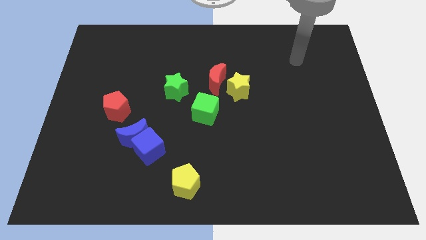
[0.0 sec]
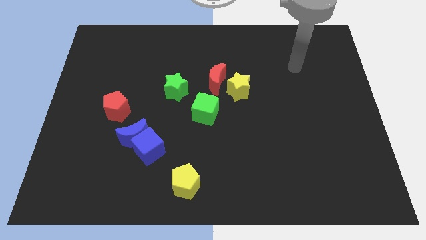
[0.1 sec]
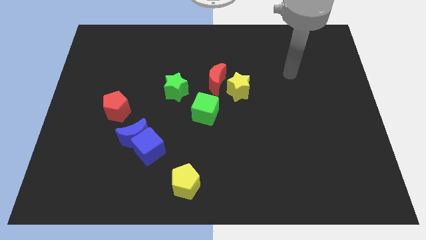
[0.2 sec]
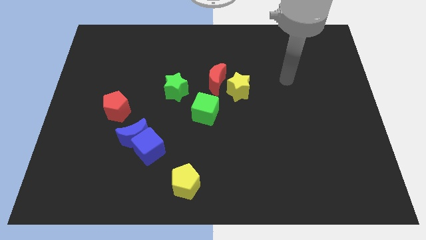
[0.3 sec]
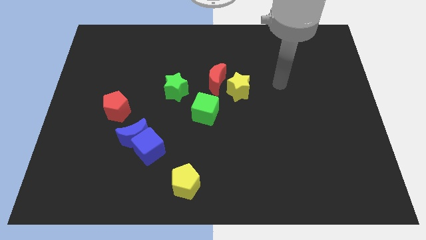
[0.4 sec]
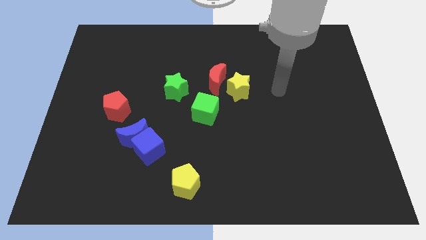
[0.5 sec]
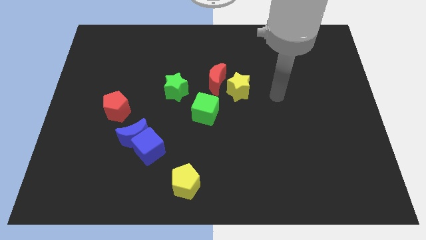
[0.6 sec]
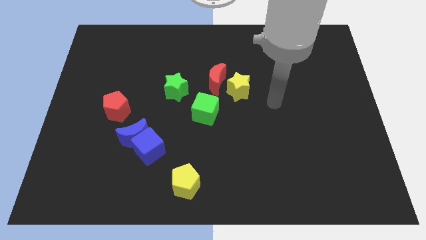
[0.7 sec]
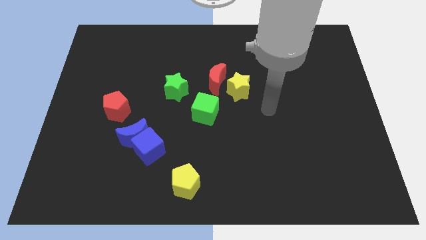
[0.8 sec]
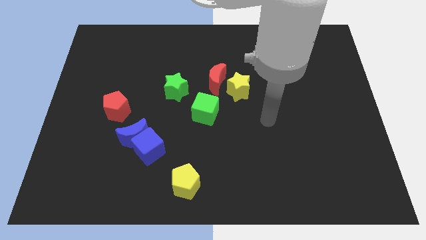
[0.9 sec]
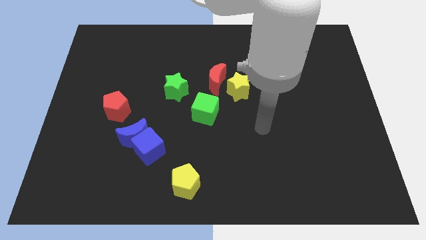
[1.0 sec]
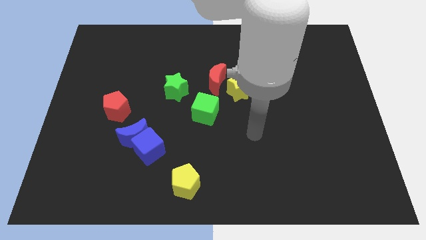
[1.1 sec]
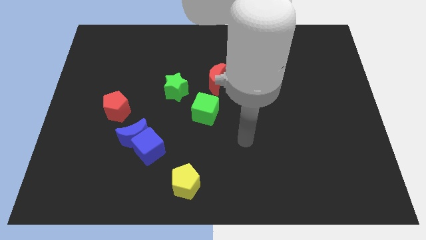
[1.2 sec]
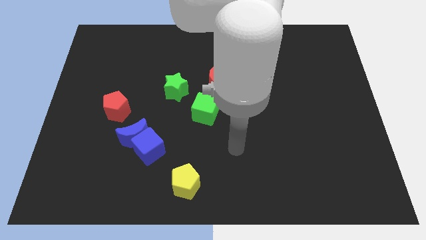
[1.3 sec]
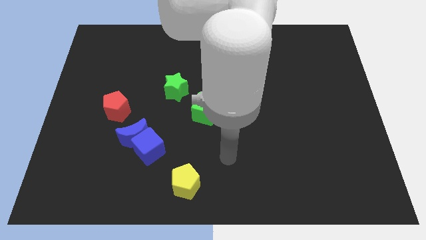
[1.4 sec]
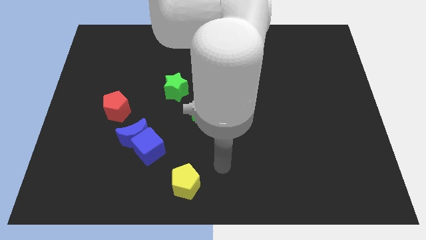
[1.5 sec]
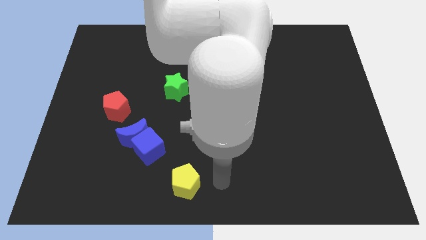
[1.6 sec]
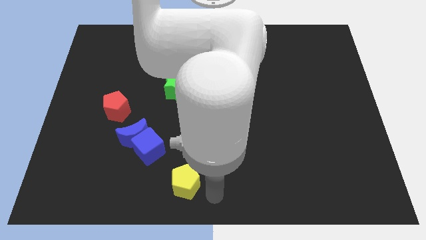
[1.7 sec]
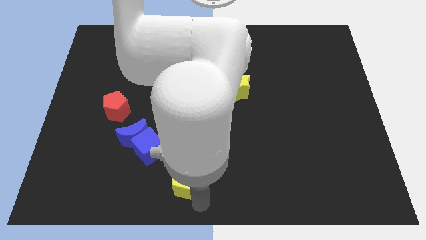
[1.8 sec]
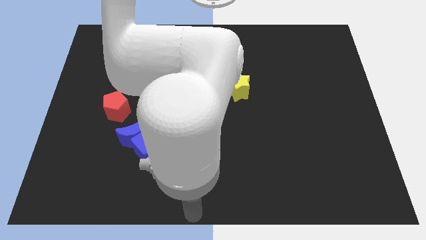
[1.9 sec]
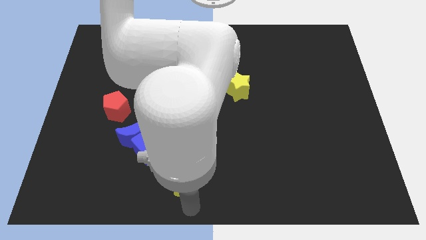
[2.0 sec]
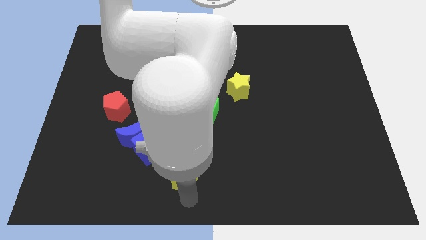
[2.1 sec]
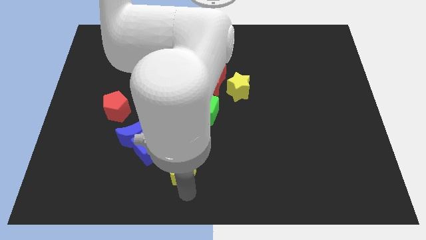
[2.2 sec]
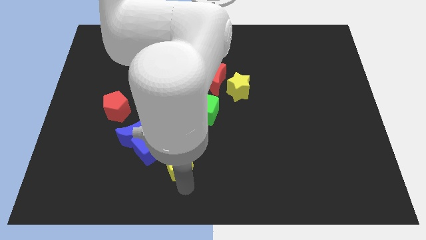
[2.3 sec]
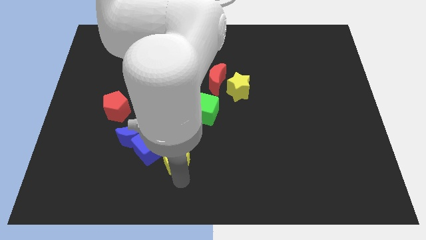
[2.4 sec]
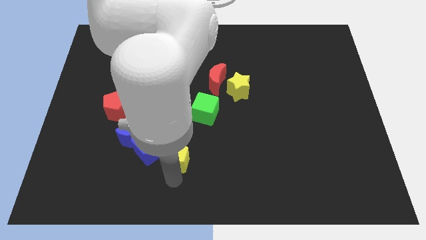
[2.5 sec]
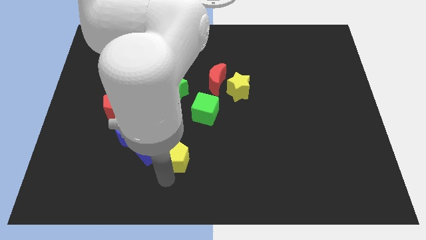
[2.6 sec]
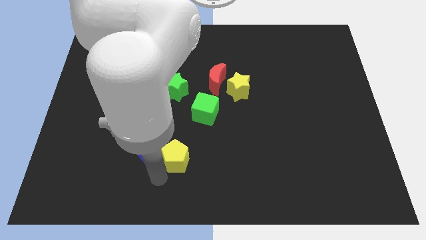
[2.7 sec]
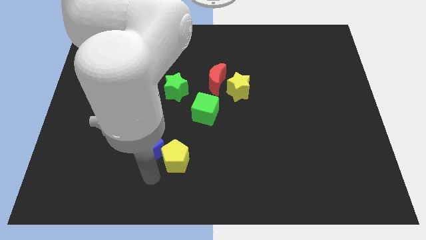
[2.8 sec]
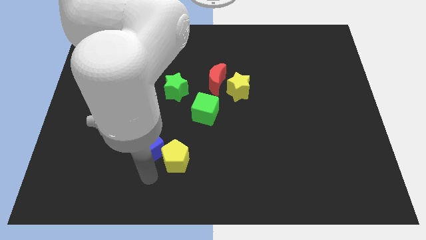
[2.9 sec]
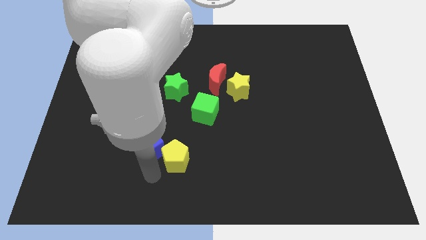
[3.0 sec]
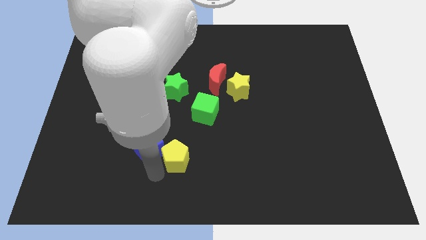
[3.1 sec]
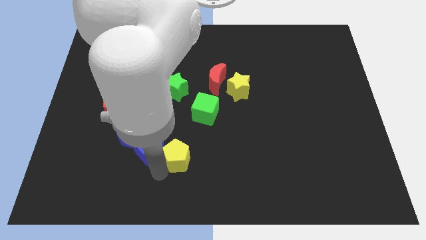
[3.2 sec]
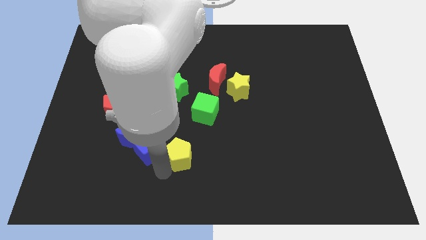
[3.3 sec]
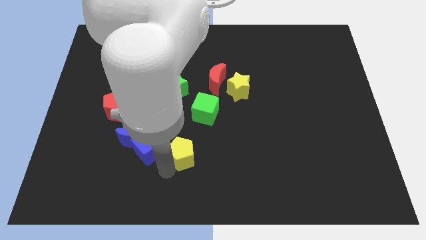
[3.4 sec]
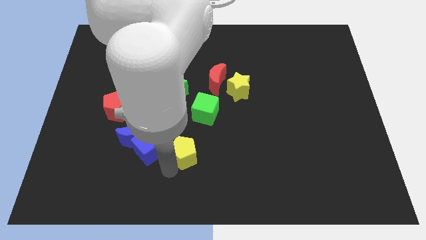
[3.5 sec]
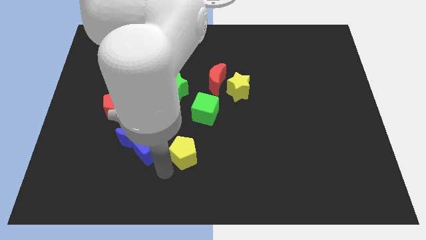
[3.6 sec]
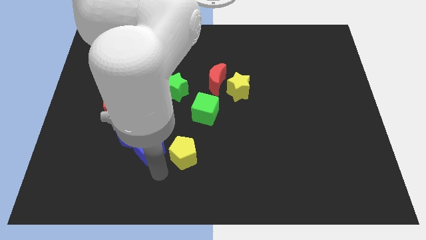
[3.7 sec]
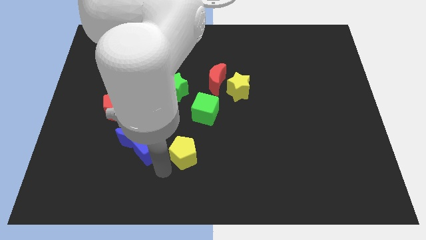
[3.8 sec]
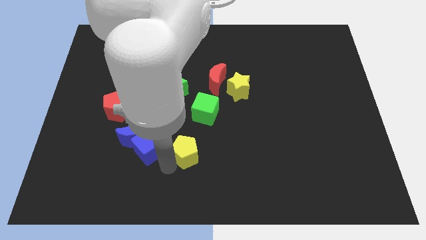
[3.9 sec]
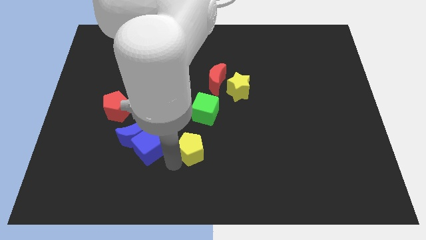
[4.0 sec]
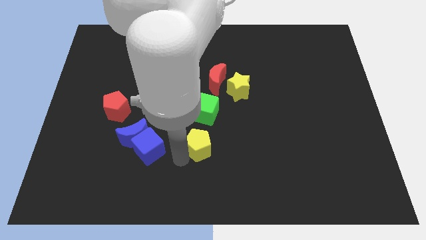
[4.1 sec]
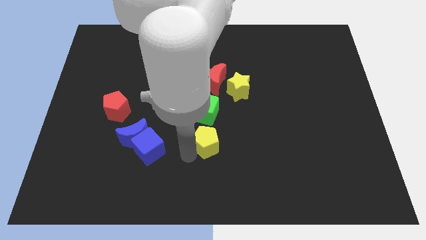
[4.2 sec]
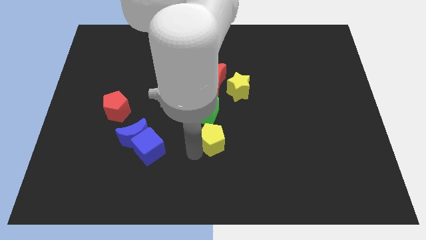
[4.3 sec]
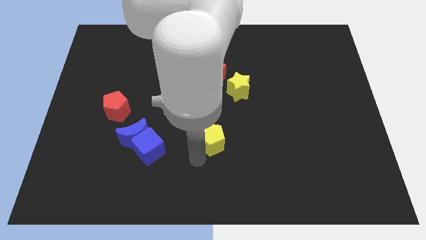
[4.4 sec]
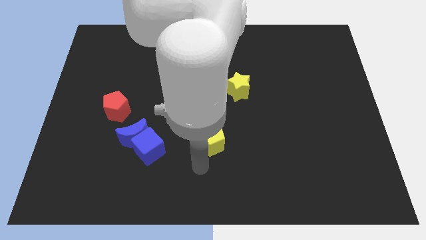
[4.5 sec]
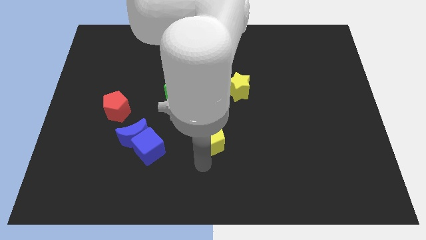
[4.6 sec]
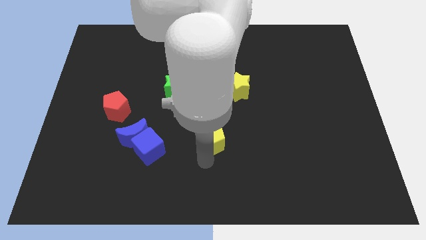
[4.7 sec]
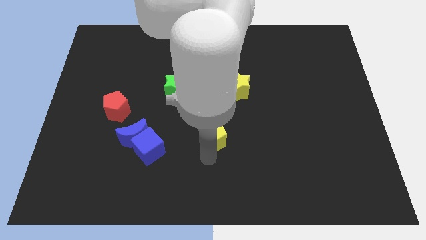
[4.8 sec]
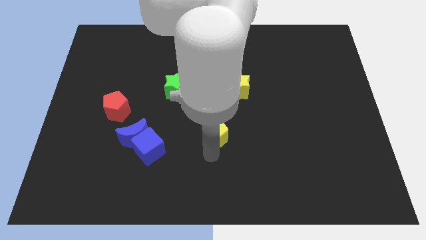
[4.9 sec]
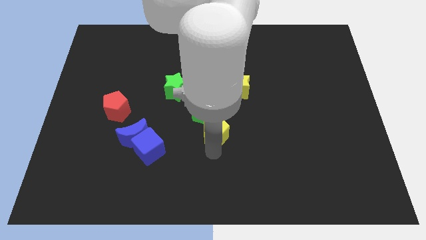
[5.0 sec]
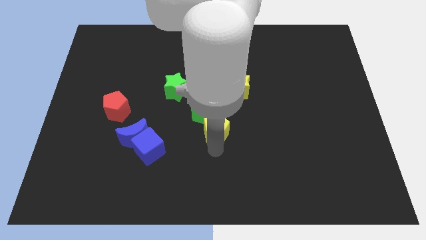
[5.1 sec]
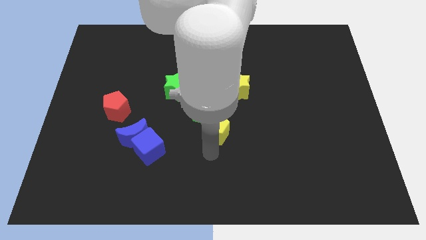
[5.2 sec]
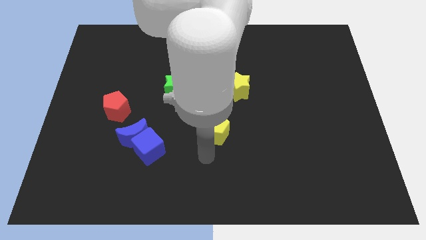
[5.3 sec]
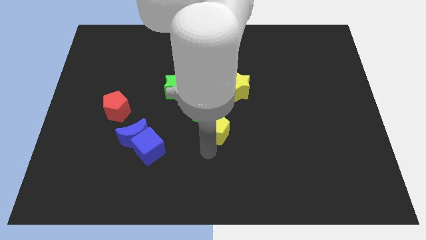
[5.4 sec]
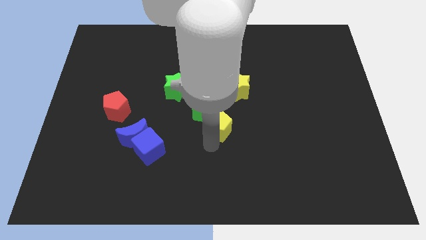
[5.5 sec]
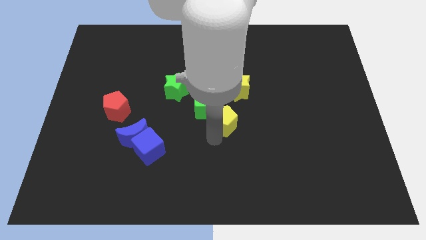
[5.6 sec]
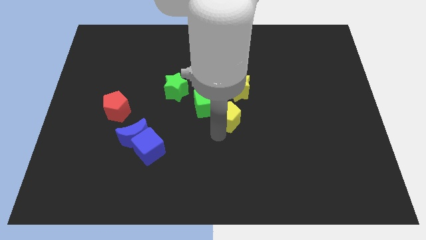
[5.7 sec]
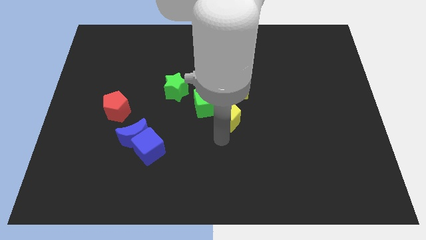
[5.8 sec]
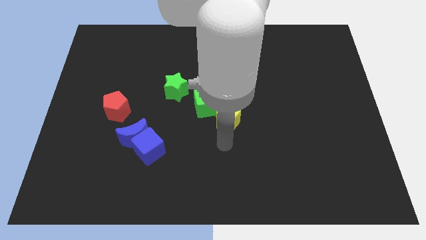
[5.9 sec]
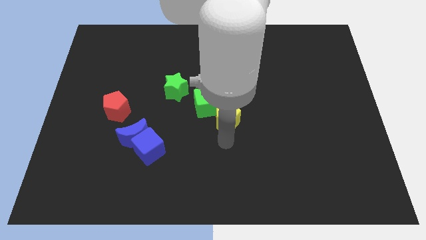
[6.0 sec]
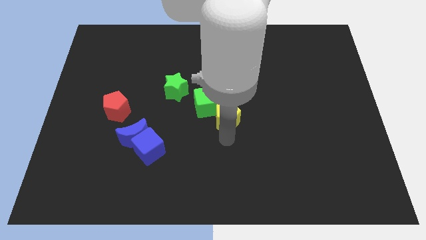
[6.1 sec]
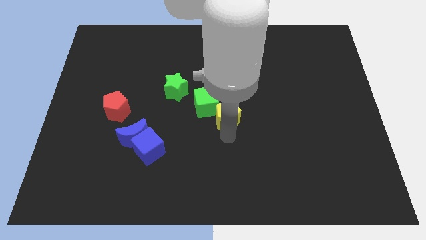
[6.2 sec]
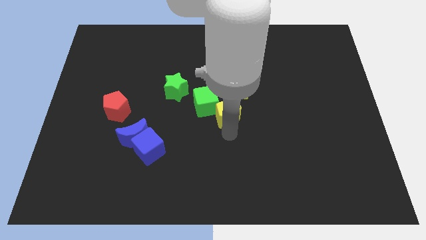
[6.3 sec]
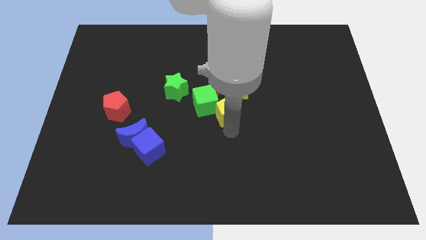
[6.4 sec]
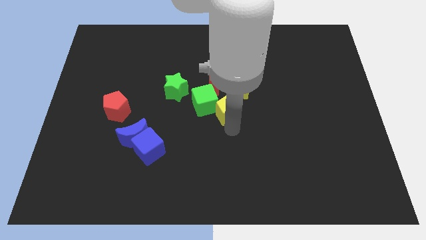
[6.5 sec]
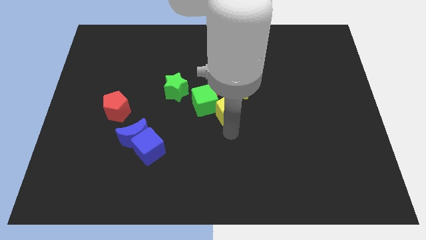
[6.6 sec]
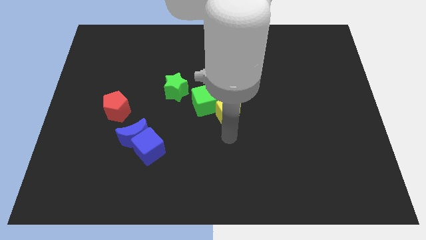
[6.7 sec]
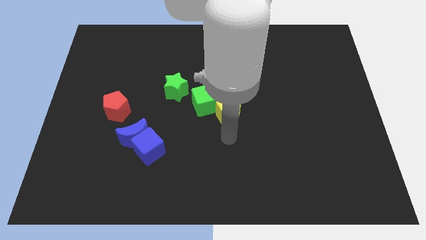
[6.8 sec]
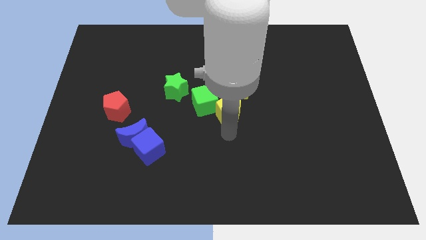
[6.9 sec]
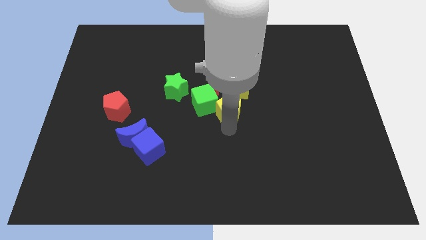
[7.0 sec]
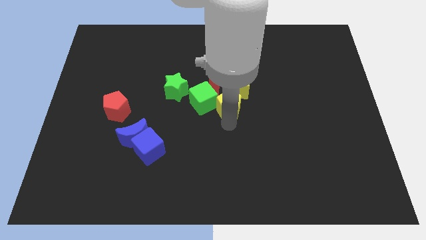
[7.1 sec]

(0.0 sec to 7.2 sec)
move the yellow pentagon close to the yellow star
